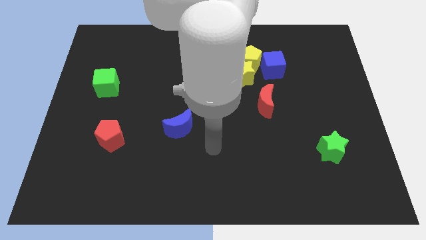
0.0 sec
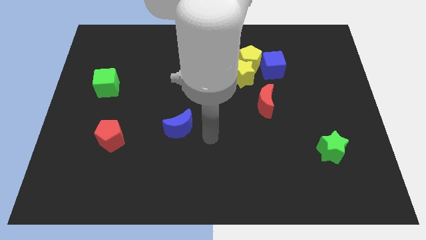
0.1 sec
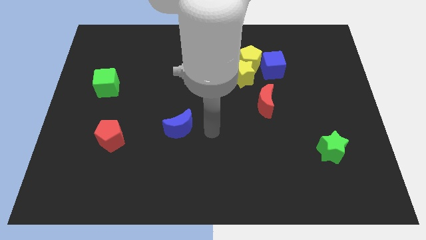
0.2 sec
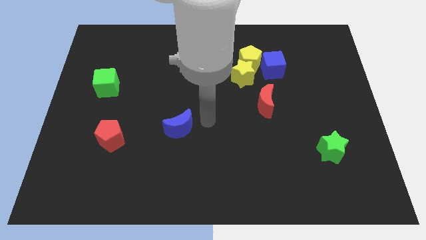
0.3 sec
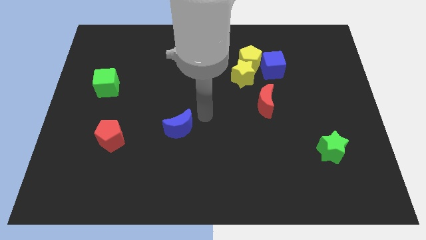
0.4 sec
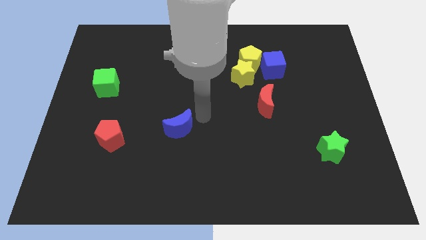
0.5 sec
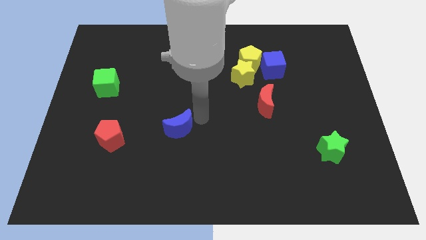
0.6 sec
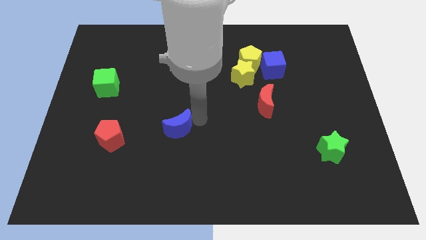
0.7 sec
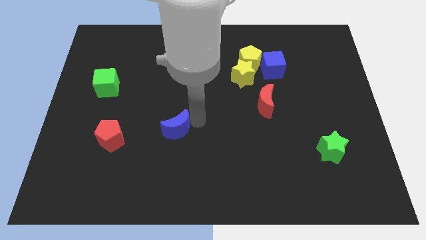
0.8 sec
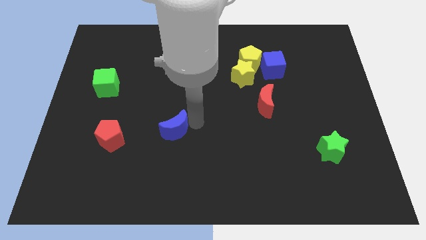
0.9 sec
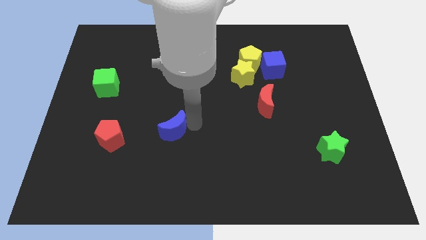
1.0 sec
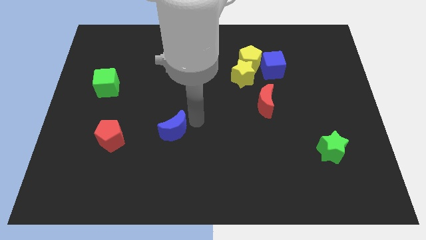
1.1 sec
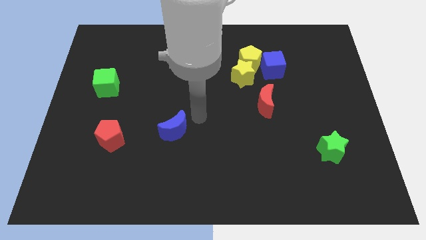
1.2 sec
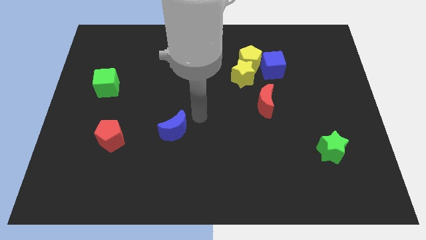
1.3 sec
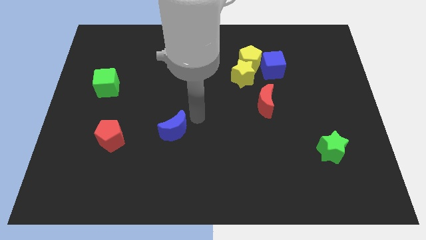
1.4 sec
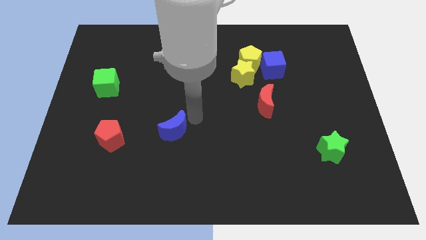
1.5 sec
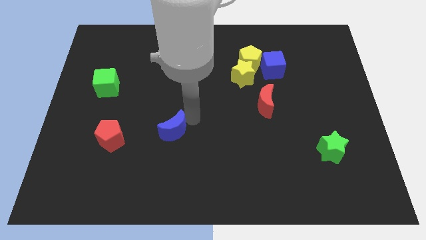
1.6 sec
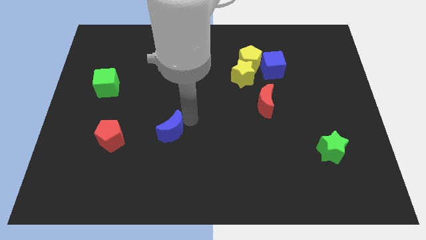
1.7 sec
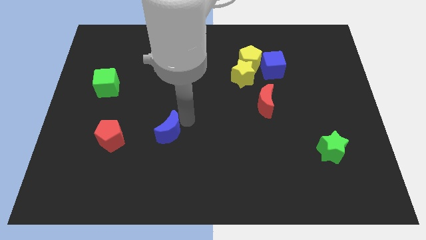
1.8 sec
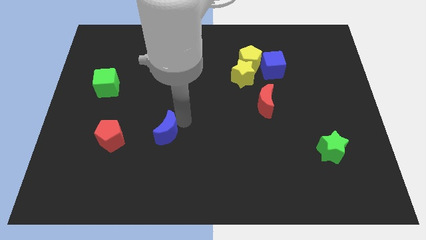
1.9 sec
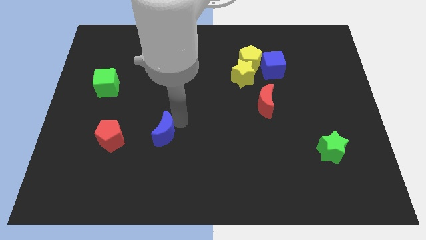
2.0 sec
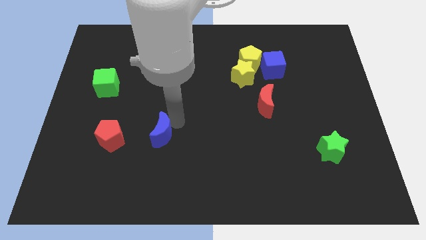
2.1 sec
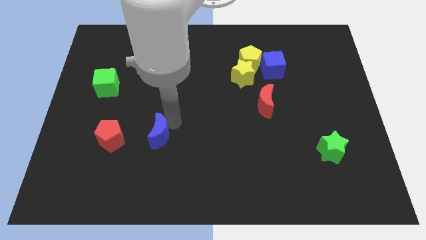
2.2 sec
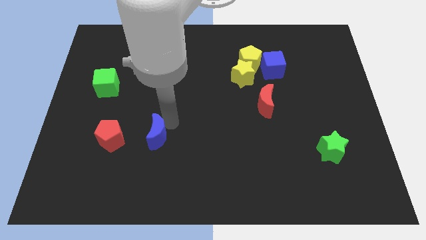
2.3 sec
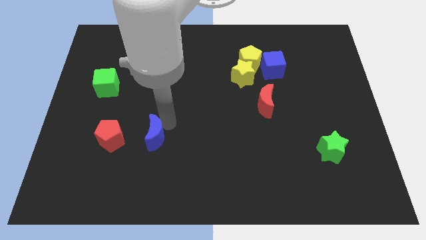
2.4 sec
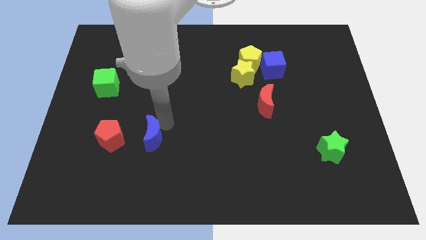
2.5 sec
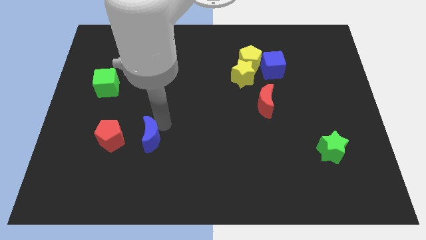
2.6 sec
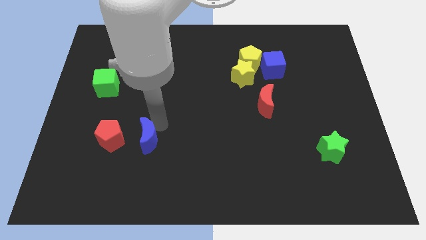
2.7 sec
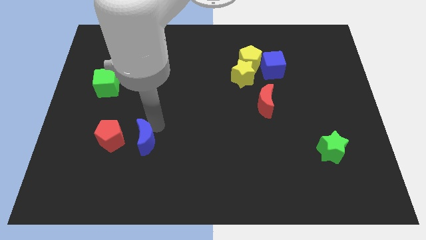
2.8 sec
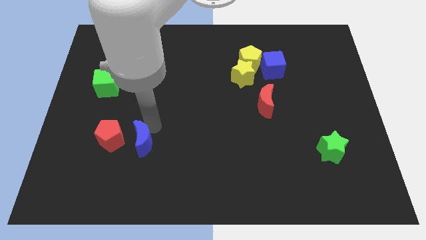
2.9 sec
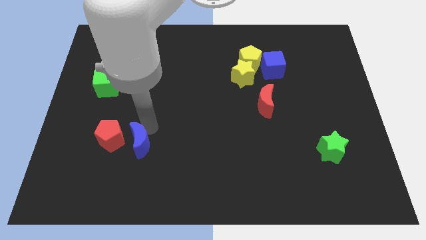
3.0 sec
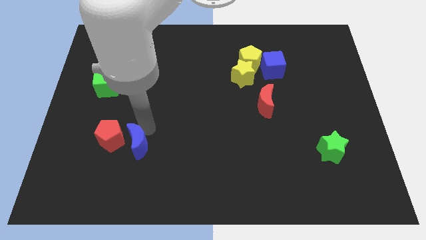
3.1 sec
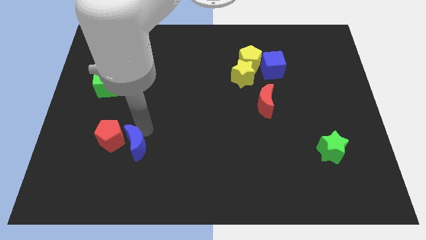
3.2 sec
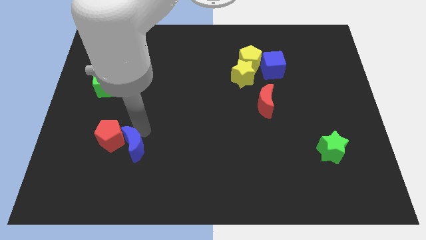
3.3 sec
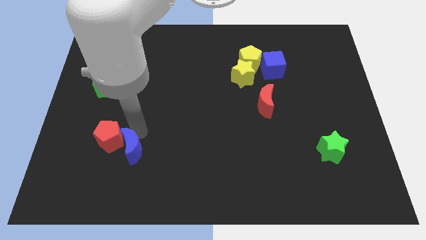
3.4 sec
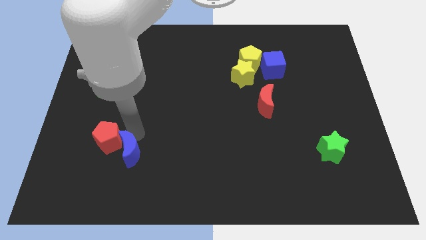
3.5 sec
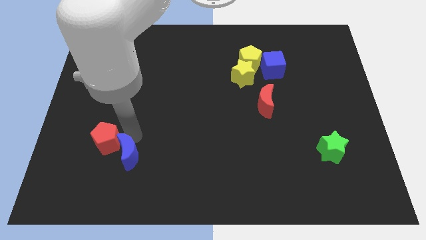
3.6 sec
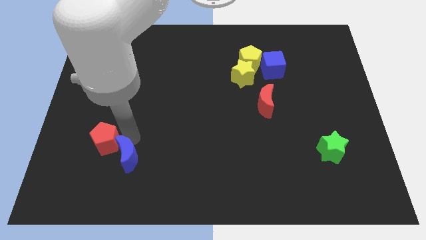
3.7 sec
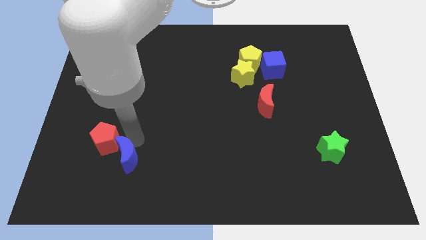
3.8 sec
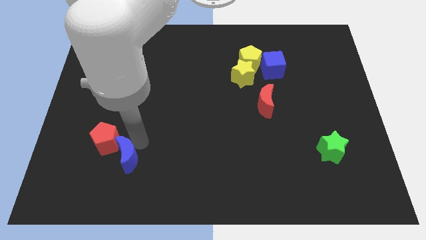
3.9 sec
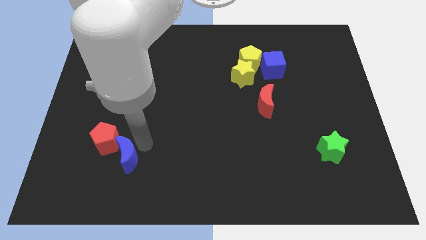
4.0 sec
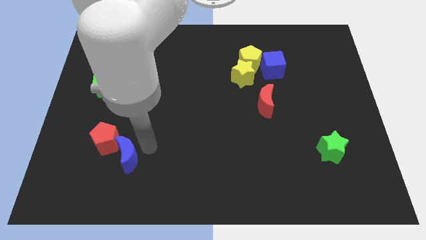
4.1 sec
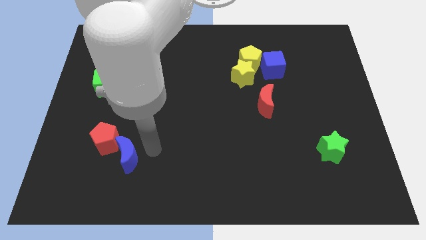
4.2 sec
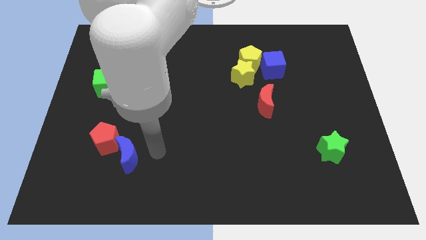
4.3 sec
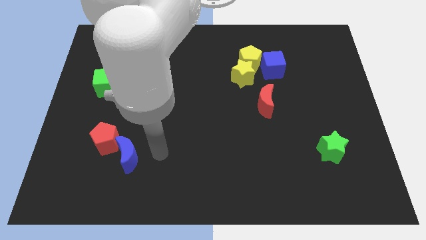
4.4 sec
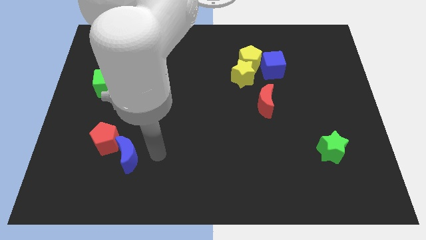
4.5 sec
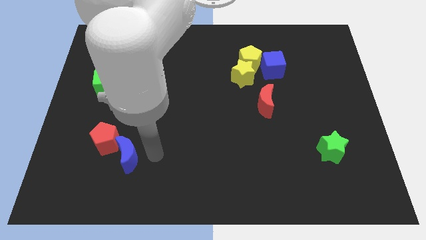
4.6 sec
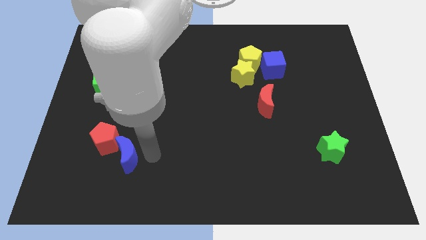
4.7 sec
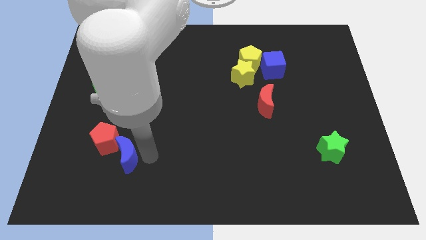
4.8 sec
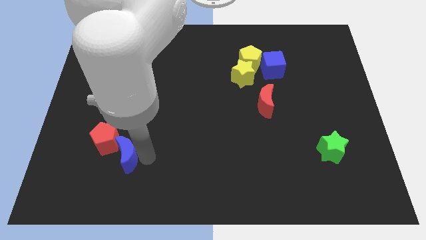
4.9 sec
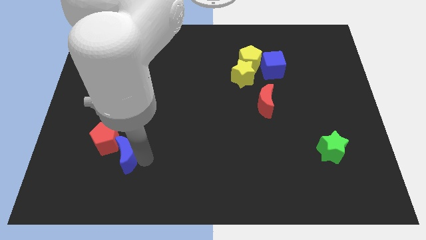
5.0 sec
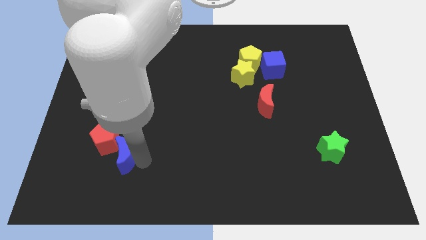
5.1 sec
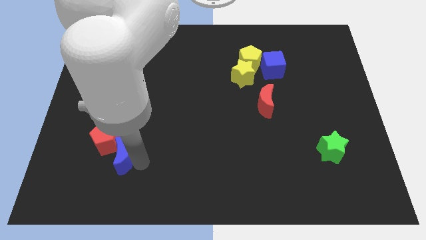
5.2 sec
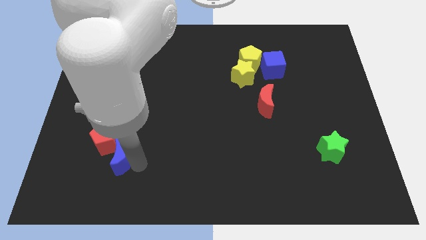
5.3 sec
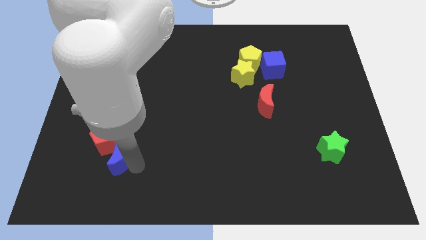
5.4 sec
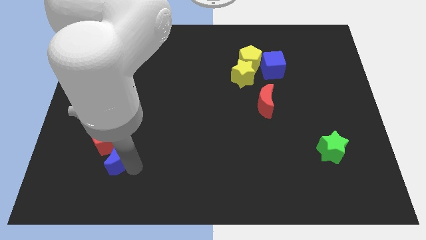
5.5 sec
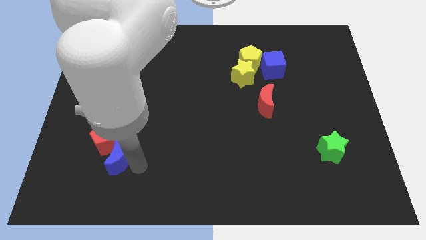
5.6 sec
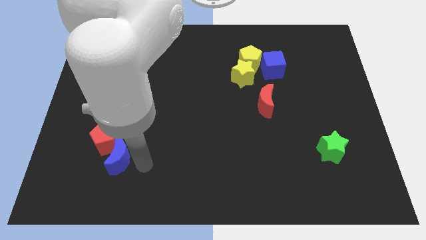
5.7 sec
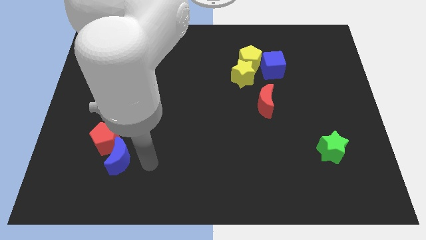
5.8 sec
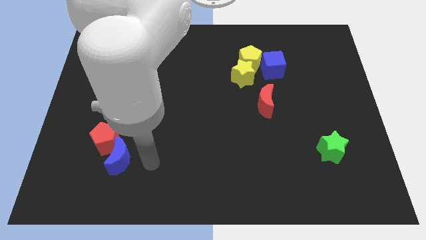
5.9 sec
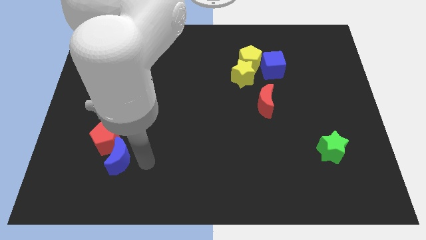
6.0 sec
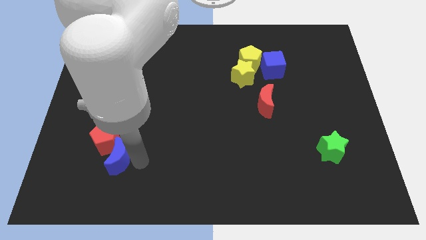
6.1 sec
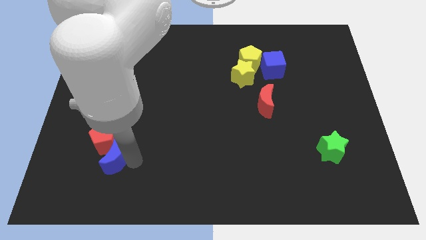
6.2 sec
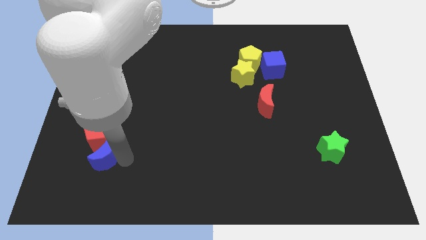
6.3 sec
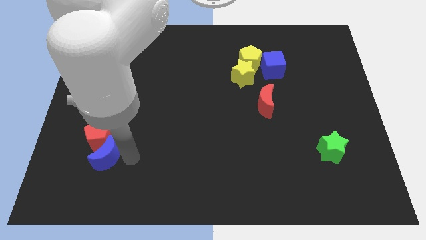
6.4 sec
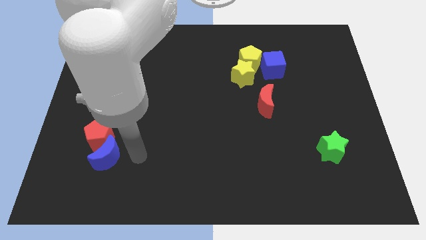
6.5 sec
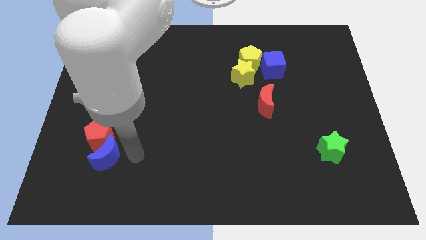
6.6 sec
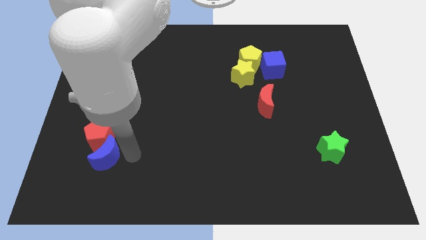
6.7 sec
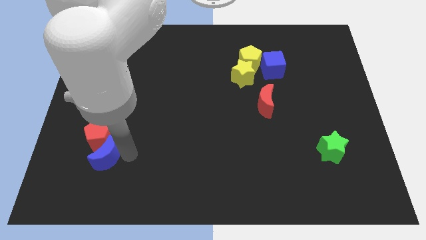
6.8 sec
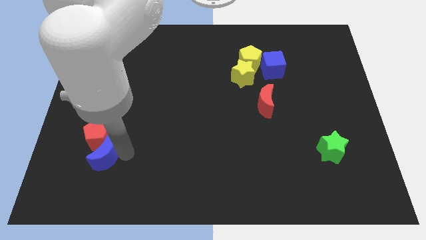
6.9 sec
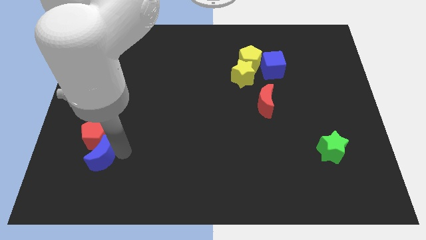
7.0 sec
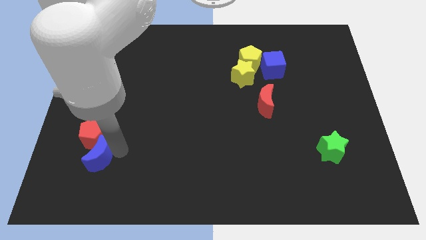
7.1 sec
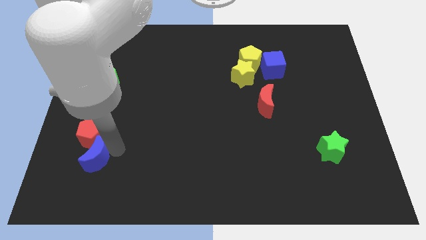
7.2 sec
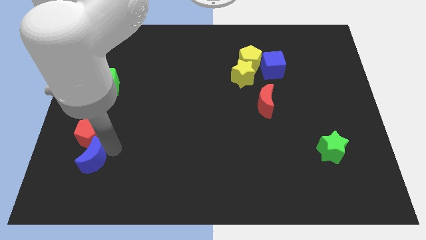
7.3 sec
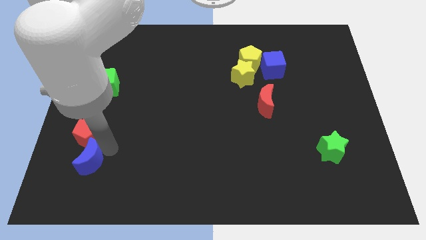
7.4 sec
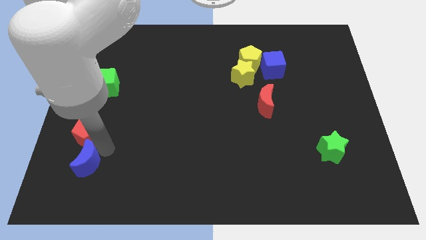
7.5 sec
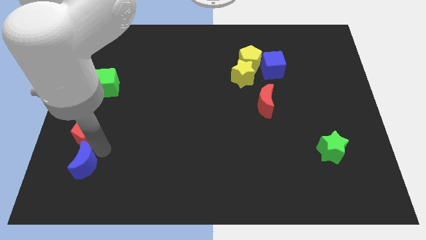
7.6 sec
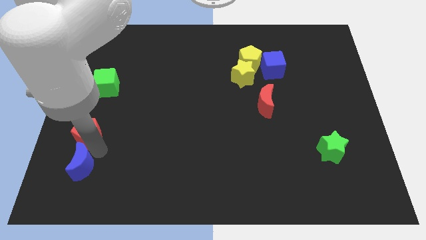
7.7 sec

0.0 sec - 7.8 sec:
push the blue moon to the bottom left side of the red pentagon
